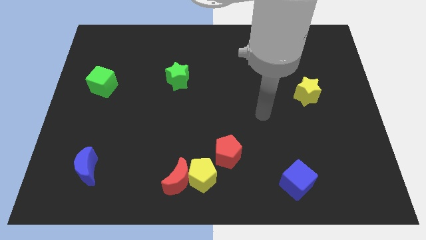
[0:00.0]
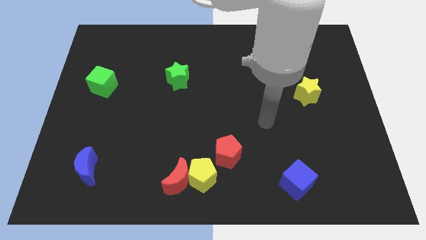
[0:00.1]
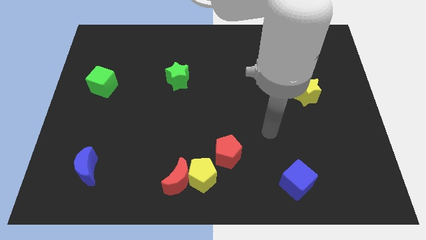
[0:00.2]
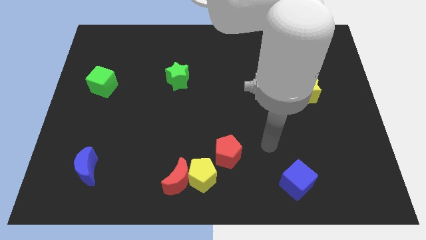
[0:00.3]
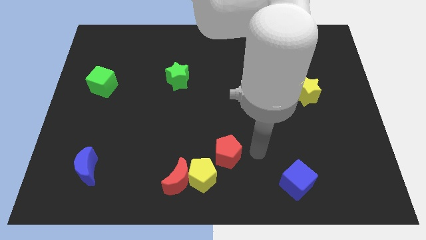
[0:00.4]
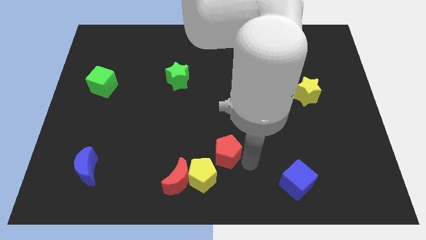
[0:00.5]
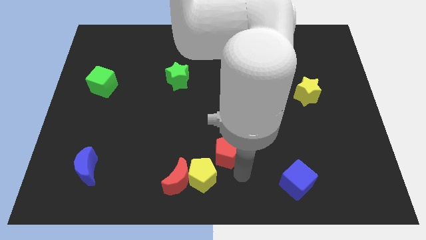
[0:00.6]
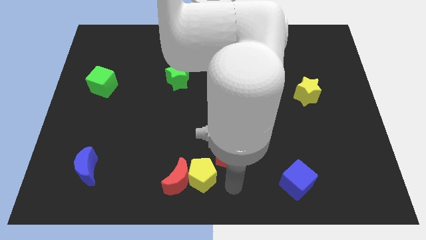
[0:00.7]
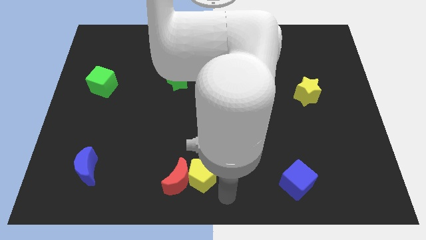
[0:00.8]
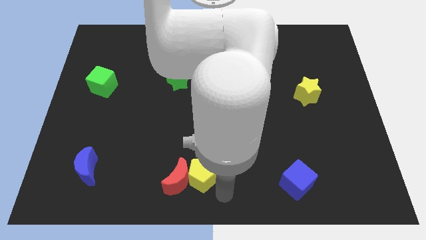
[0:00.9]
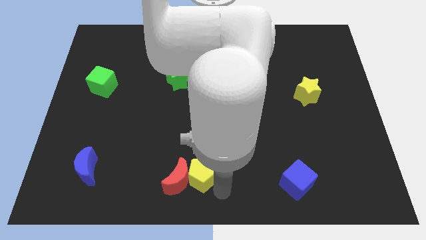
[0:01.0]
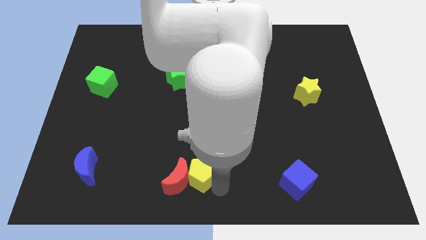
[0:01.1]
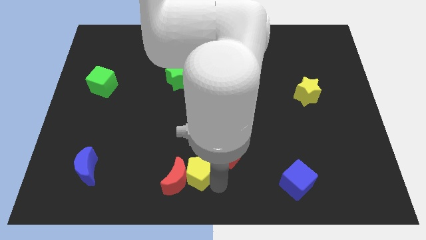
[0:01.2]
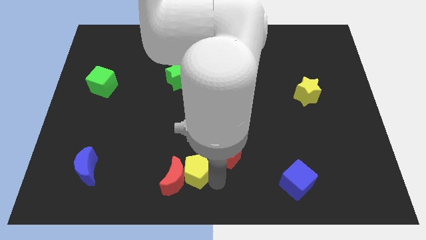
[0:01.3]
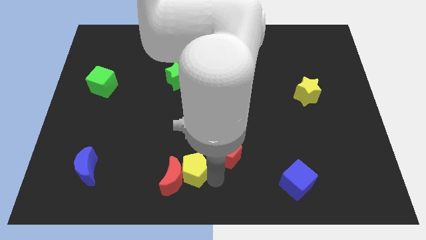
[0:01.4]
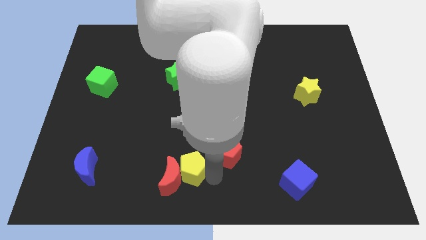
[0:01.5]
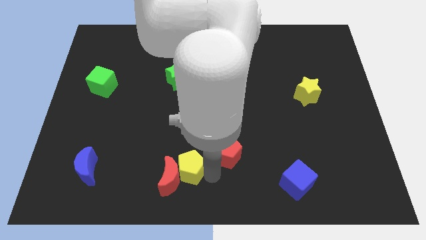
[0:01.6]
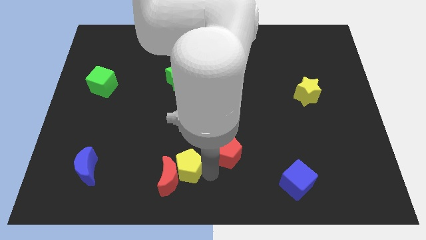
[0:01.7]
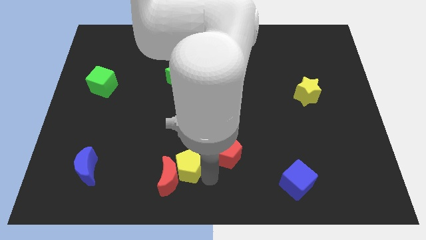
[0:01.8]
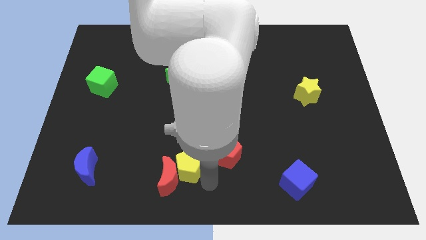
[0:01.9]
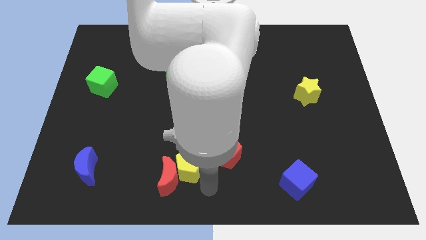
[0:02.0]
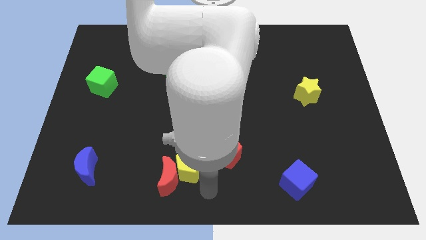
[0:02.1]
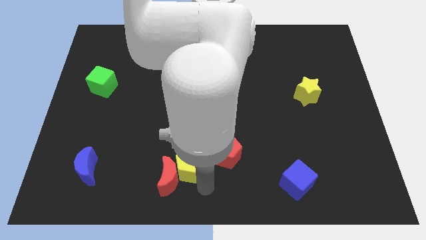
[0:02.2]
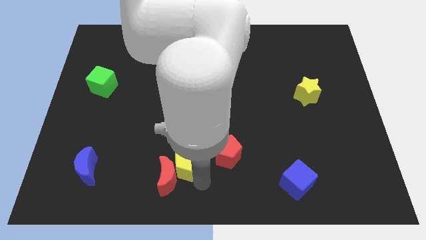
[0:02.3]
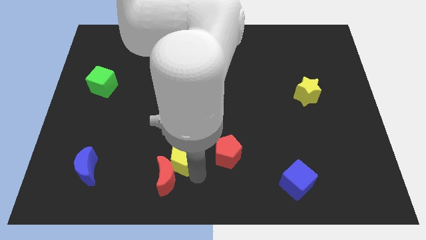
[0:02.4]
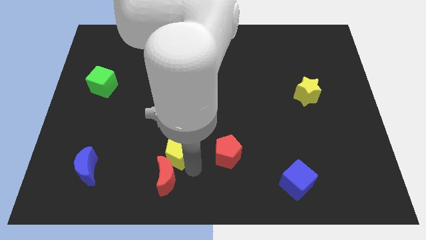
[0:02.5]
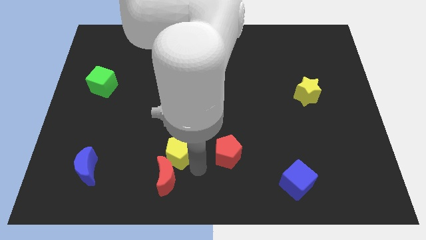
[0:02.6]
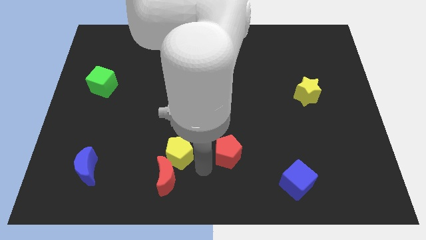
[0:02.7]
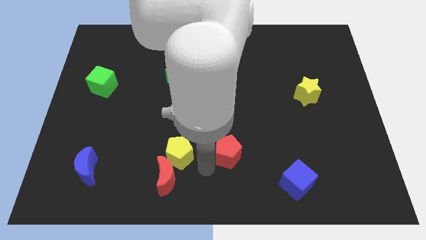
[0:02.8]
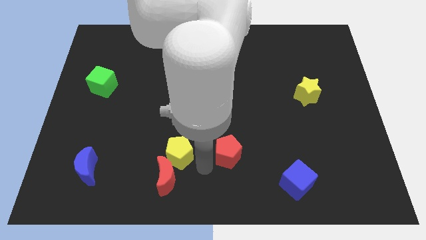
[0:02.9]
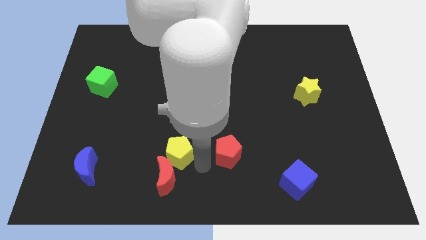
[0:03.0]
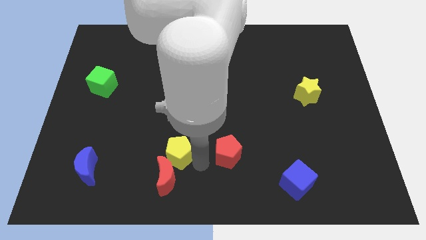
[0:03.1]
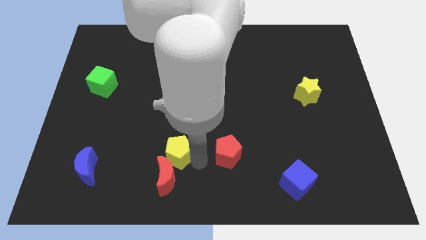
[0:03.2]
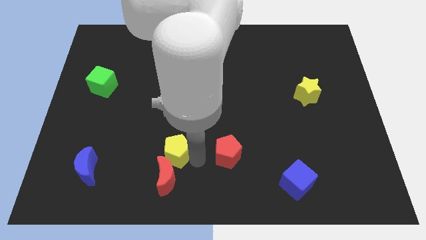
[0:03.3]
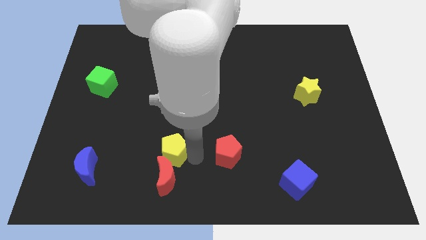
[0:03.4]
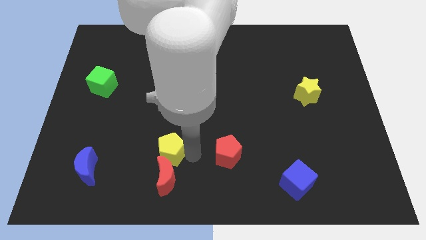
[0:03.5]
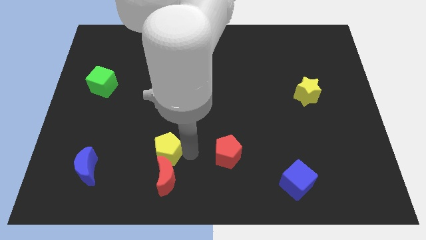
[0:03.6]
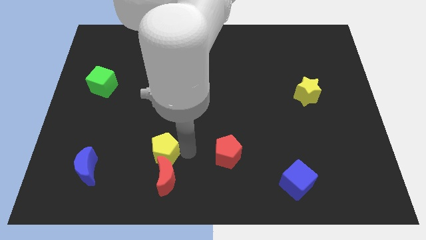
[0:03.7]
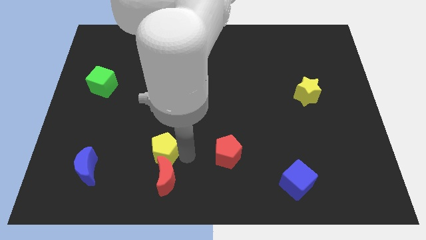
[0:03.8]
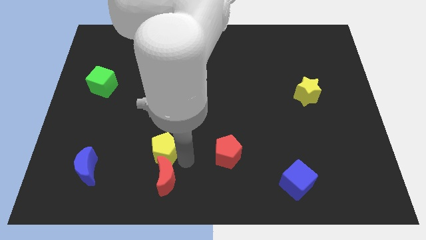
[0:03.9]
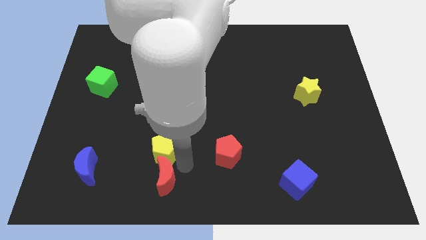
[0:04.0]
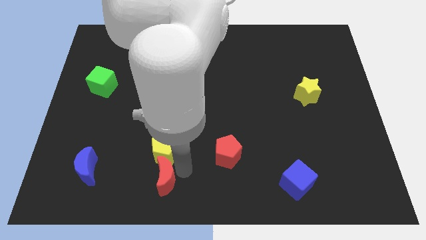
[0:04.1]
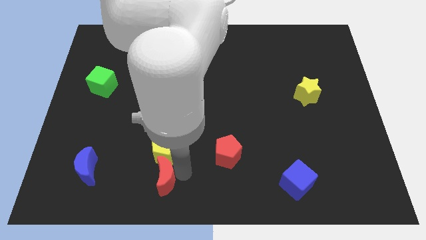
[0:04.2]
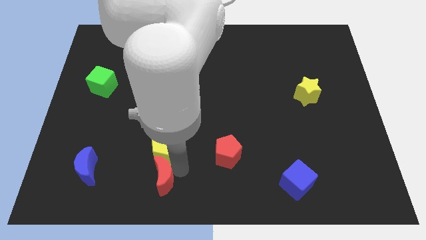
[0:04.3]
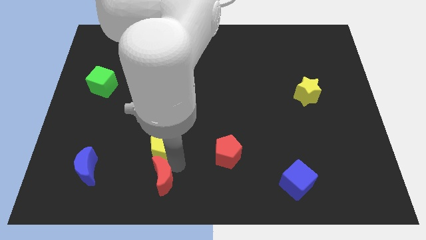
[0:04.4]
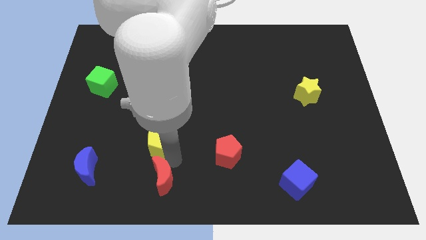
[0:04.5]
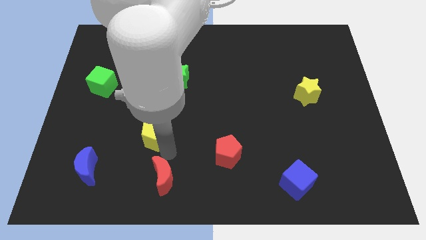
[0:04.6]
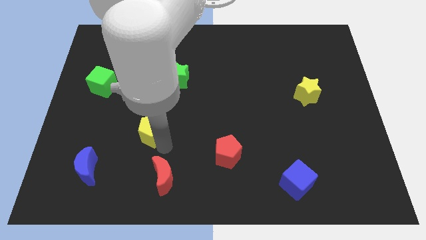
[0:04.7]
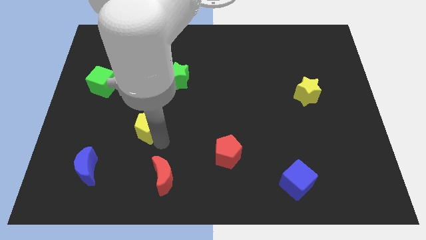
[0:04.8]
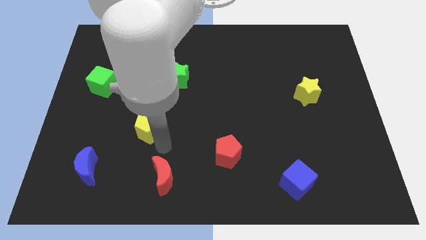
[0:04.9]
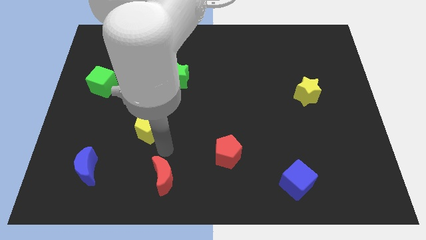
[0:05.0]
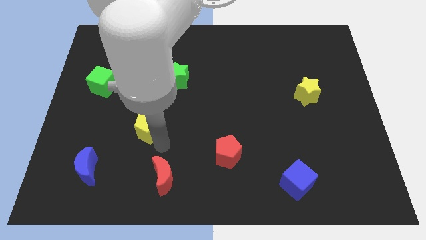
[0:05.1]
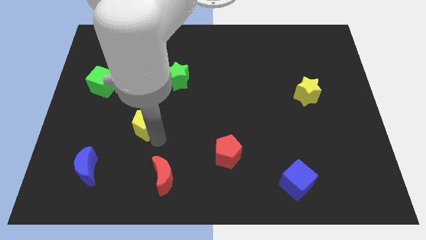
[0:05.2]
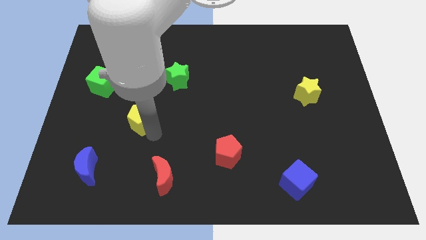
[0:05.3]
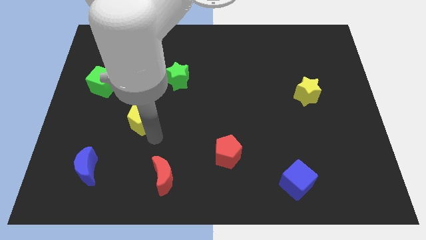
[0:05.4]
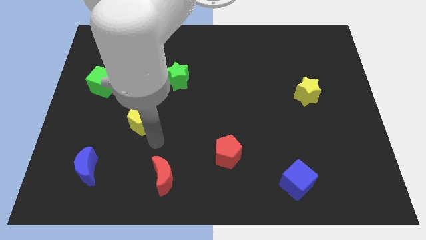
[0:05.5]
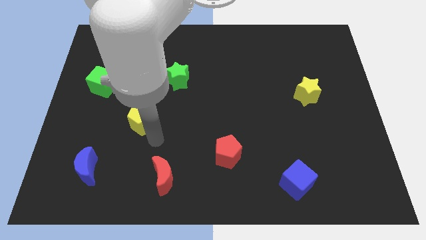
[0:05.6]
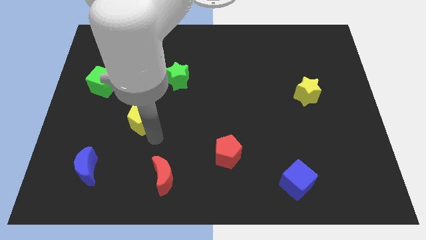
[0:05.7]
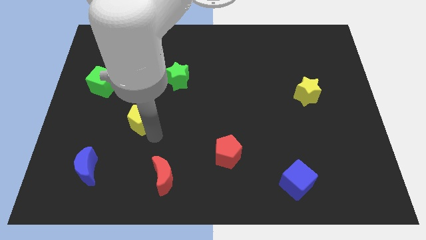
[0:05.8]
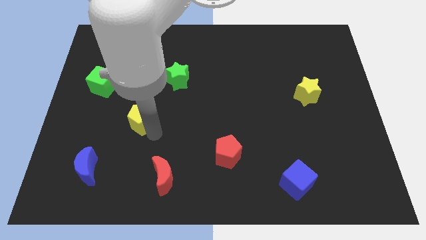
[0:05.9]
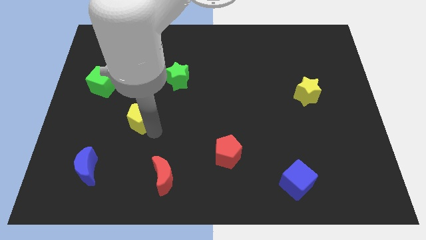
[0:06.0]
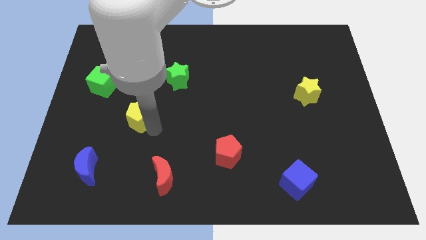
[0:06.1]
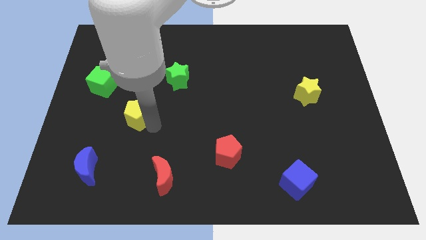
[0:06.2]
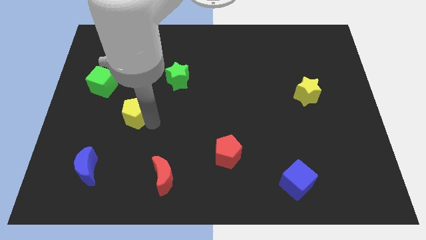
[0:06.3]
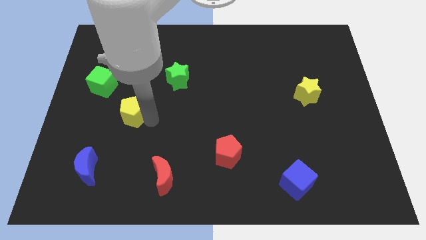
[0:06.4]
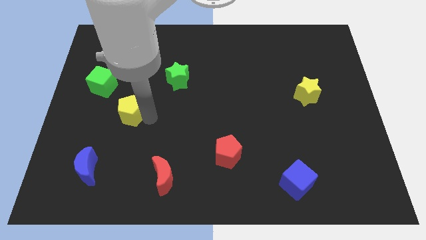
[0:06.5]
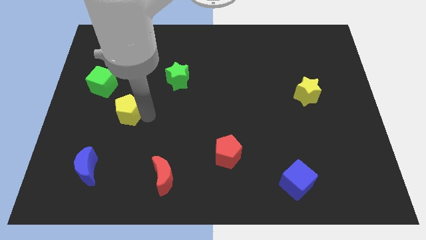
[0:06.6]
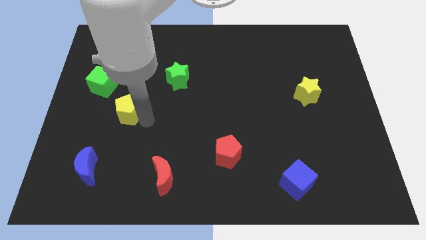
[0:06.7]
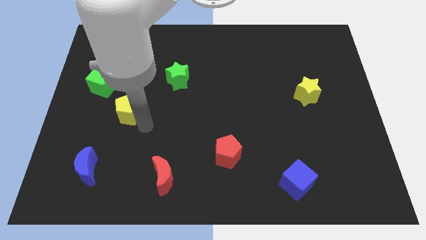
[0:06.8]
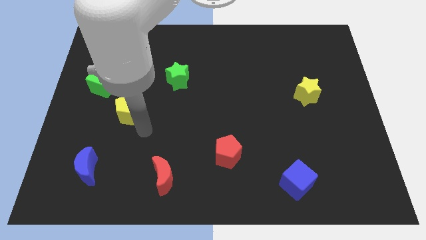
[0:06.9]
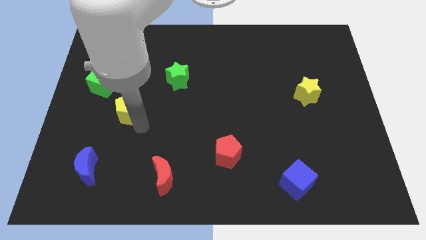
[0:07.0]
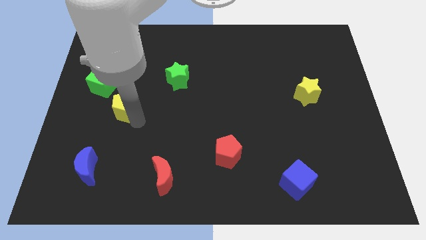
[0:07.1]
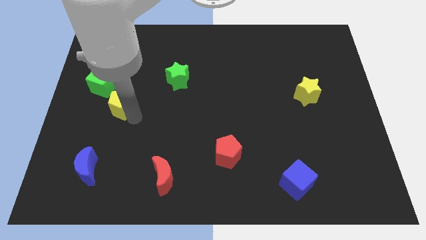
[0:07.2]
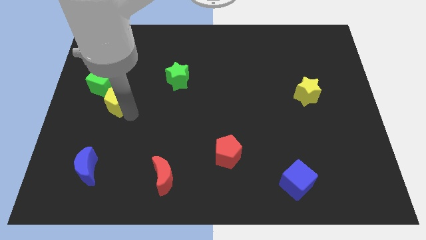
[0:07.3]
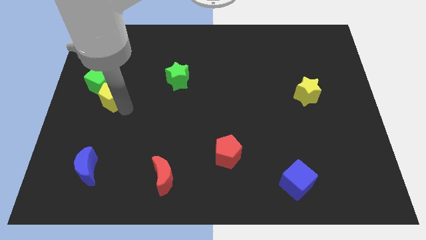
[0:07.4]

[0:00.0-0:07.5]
move the yellow pentagon to the green cube
